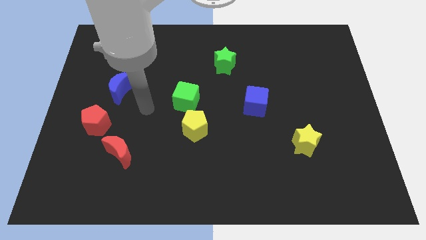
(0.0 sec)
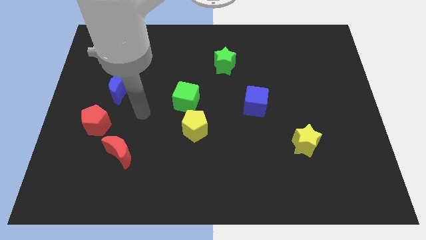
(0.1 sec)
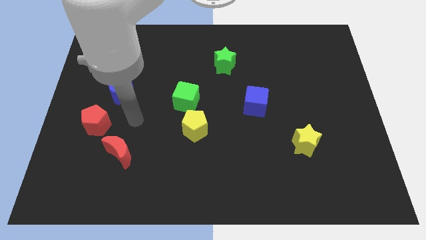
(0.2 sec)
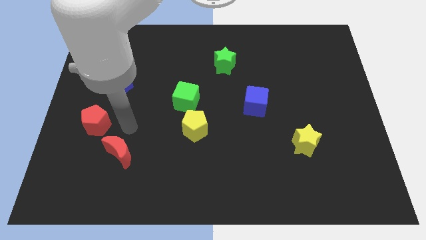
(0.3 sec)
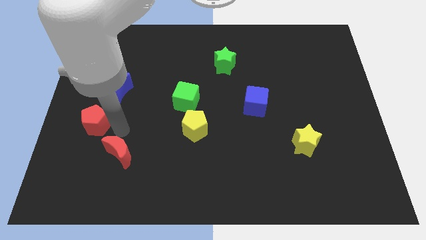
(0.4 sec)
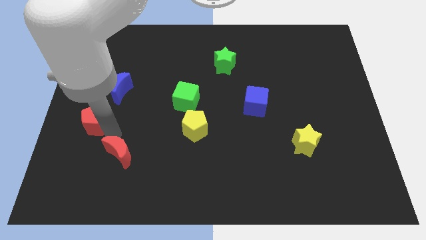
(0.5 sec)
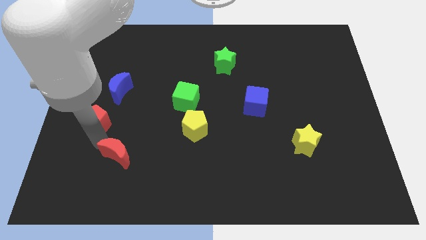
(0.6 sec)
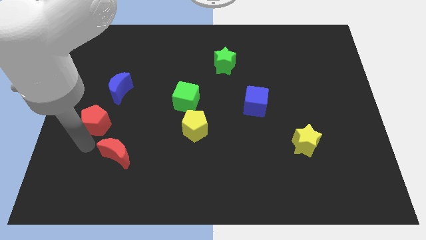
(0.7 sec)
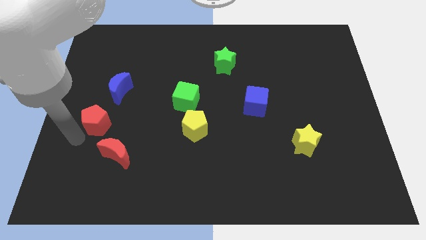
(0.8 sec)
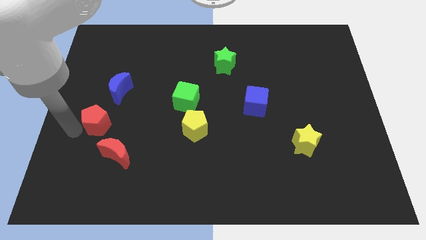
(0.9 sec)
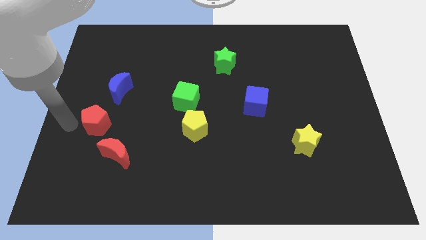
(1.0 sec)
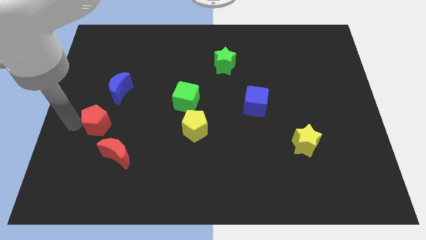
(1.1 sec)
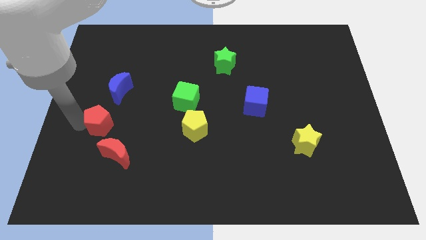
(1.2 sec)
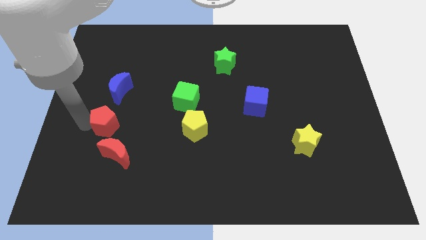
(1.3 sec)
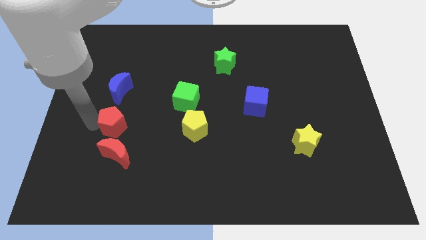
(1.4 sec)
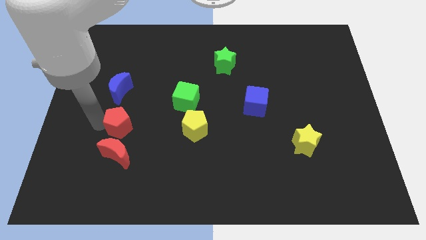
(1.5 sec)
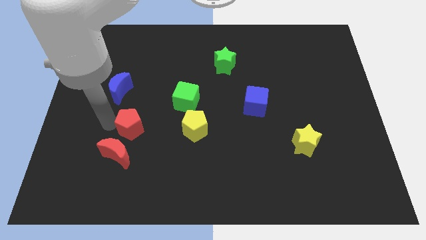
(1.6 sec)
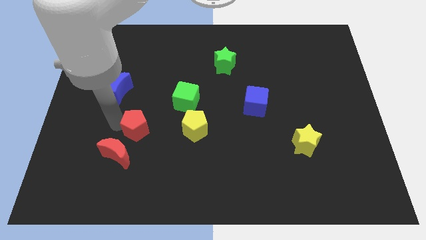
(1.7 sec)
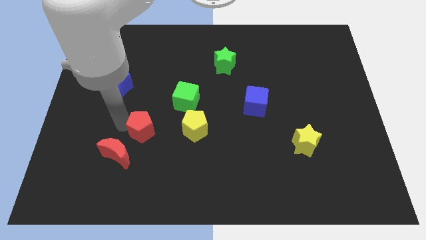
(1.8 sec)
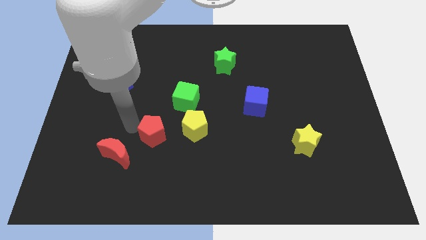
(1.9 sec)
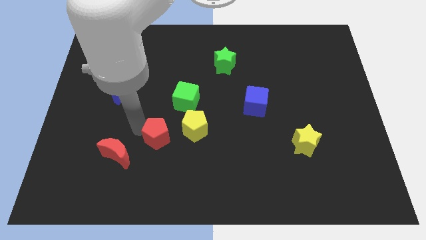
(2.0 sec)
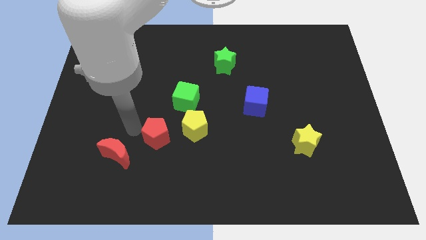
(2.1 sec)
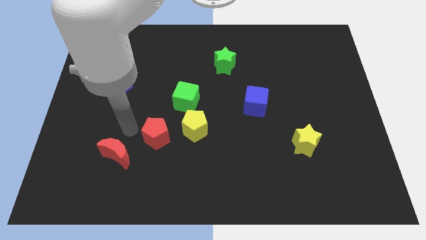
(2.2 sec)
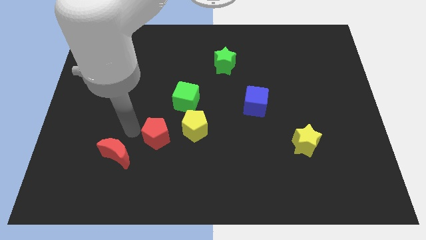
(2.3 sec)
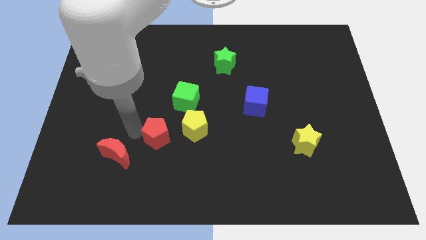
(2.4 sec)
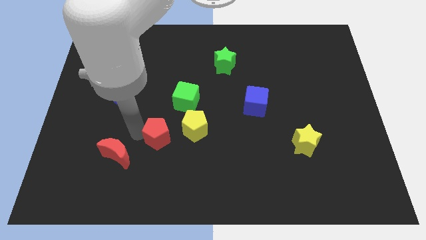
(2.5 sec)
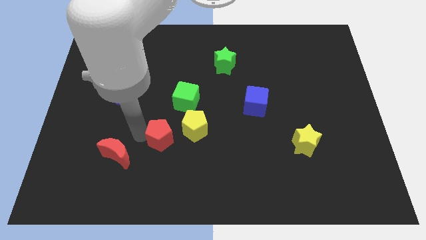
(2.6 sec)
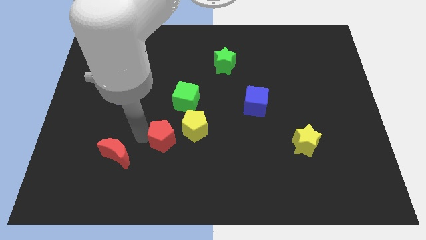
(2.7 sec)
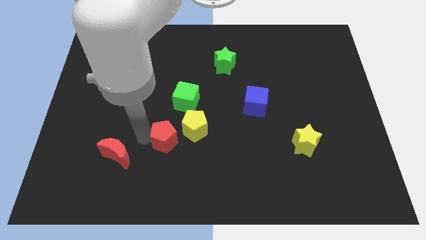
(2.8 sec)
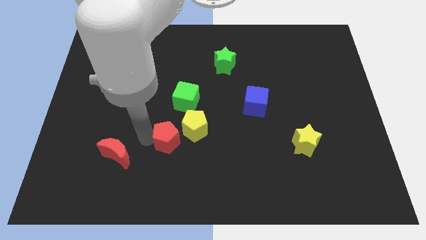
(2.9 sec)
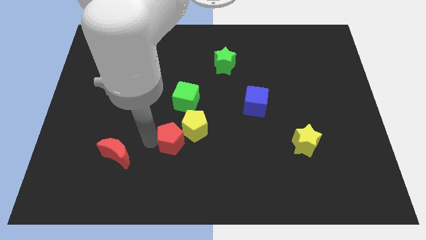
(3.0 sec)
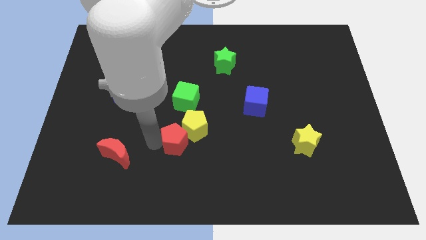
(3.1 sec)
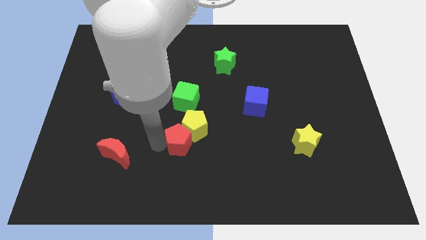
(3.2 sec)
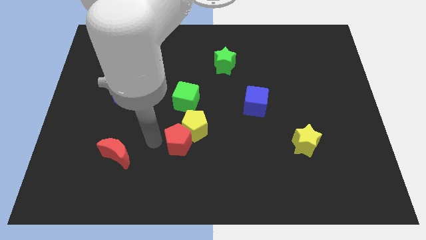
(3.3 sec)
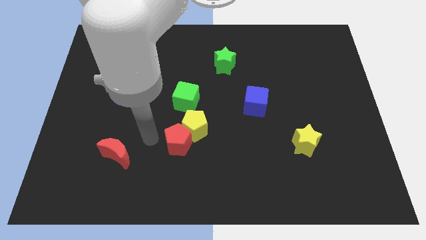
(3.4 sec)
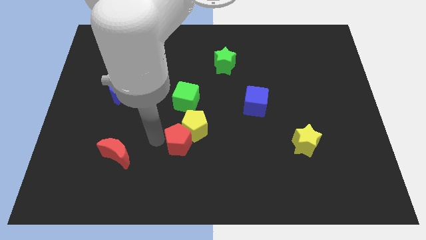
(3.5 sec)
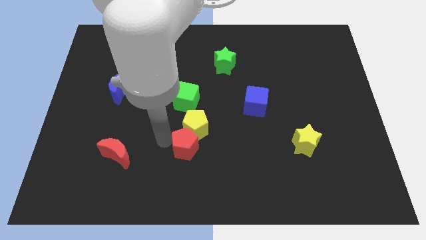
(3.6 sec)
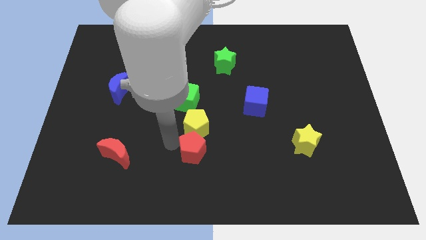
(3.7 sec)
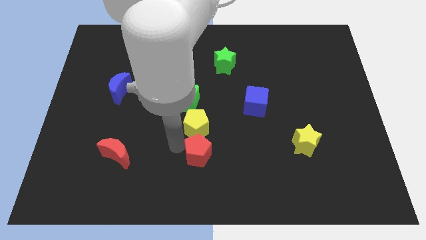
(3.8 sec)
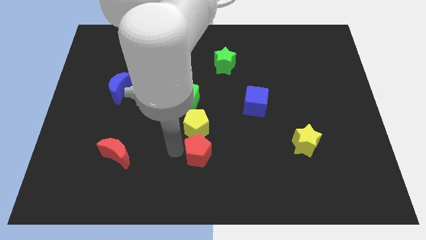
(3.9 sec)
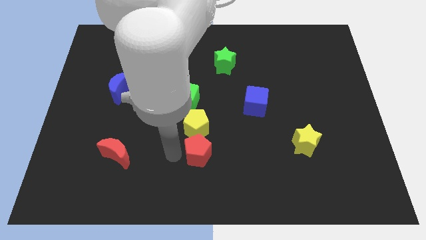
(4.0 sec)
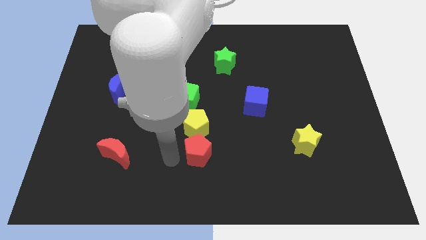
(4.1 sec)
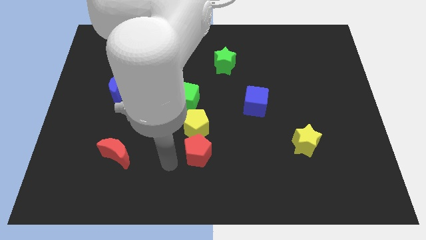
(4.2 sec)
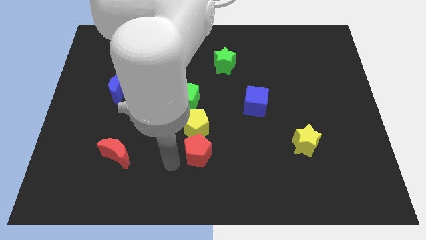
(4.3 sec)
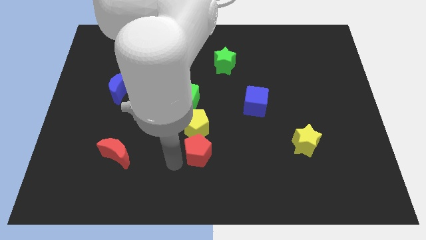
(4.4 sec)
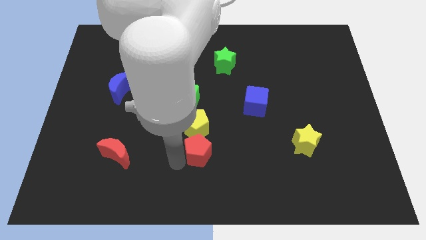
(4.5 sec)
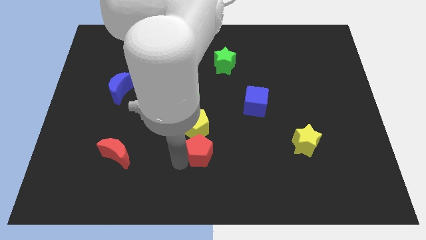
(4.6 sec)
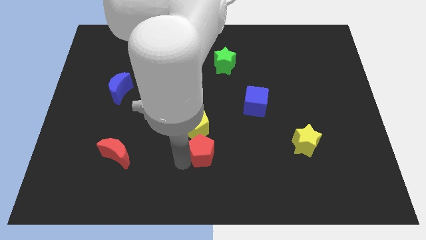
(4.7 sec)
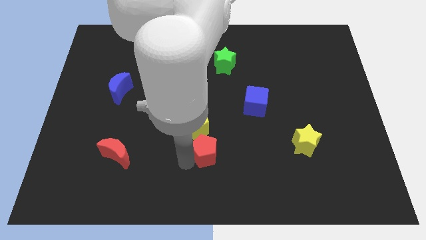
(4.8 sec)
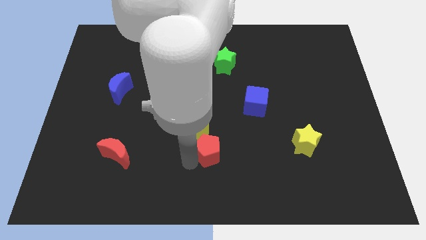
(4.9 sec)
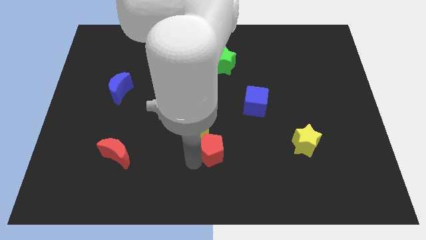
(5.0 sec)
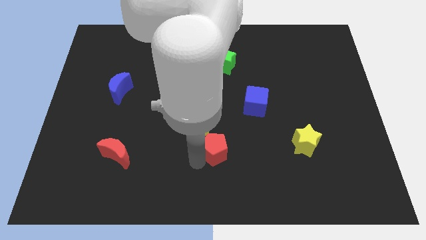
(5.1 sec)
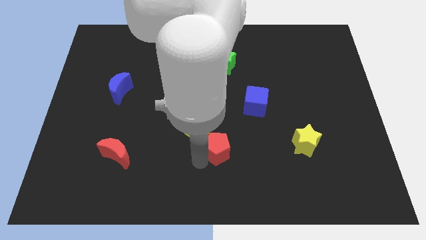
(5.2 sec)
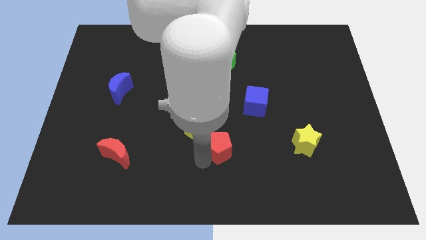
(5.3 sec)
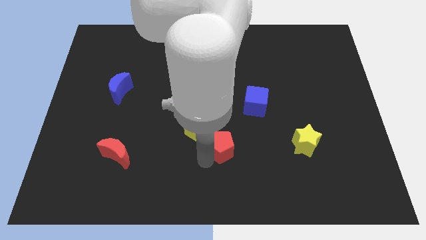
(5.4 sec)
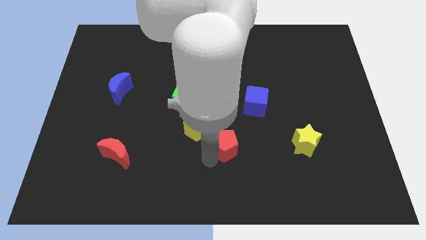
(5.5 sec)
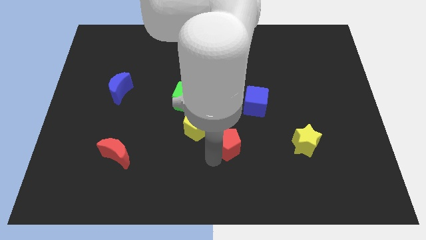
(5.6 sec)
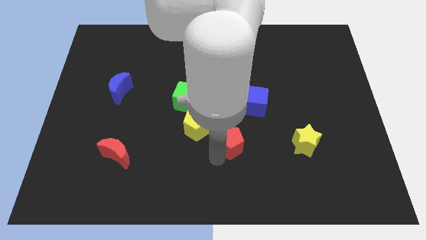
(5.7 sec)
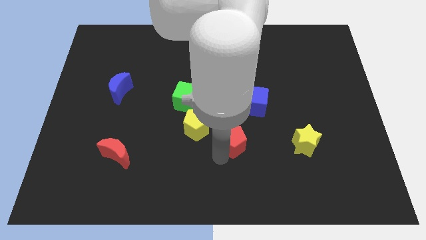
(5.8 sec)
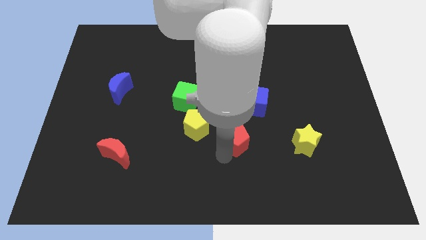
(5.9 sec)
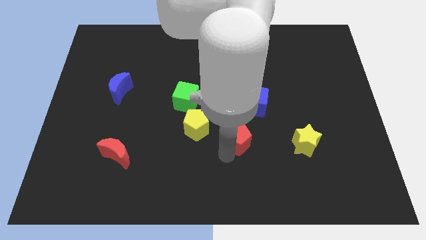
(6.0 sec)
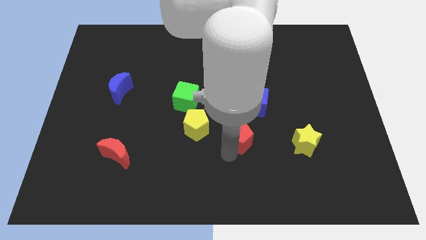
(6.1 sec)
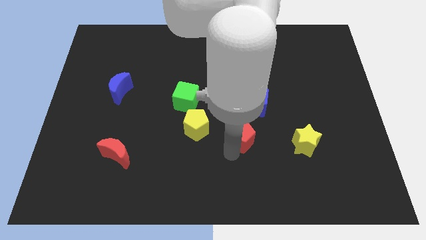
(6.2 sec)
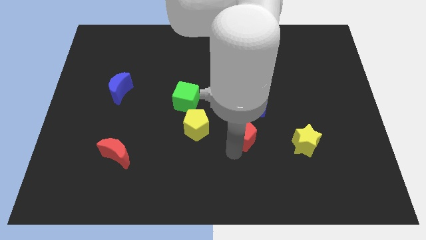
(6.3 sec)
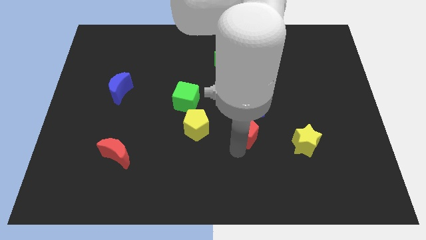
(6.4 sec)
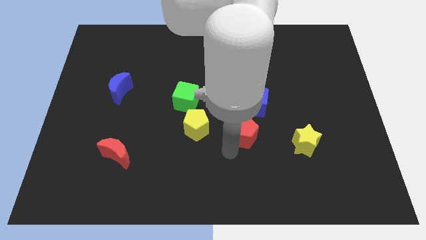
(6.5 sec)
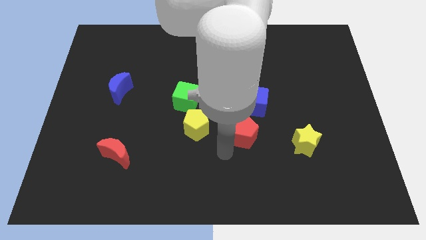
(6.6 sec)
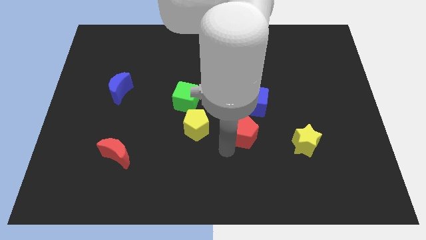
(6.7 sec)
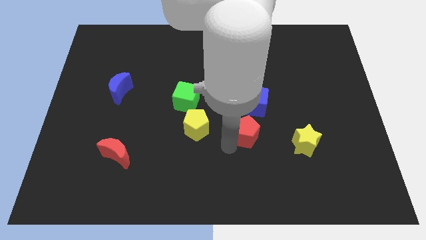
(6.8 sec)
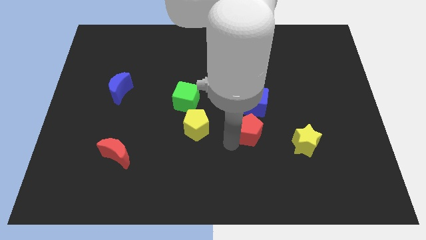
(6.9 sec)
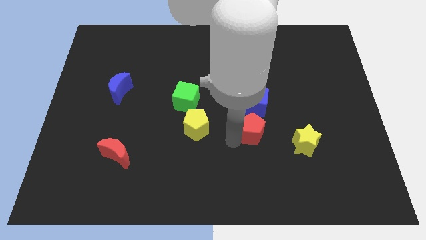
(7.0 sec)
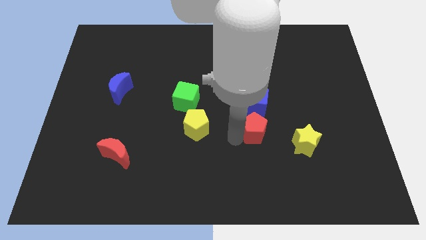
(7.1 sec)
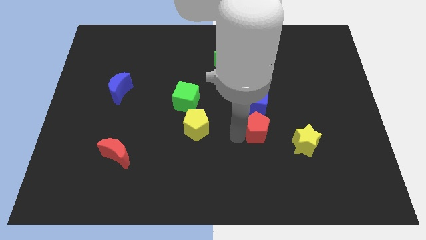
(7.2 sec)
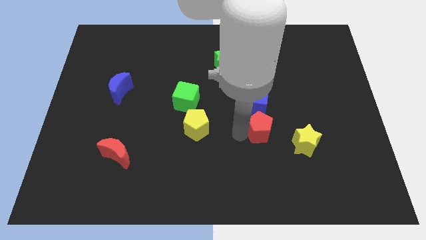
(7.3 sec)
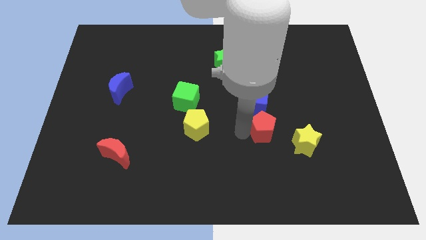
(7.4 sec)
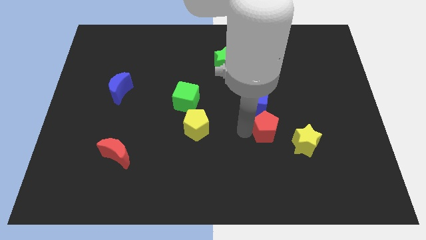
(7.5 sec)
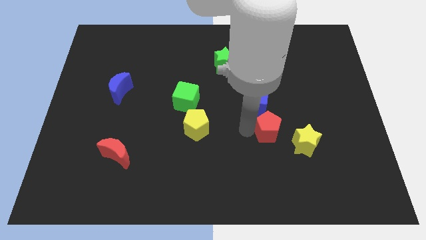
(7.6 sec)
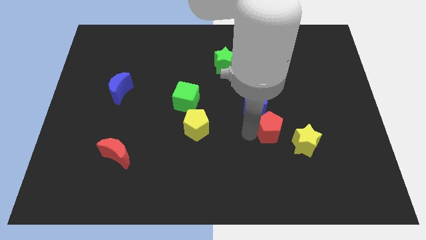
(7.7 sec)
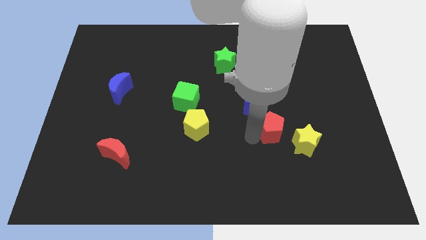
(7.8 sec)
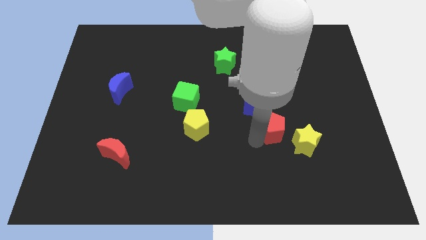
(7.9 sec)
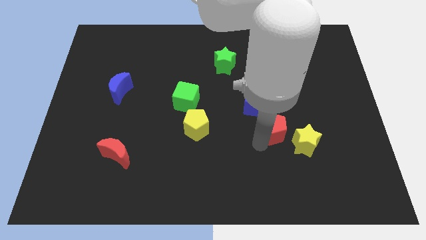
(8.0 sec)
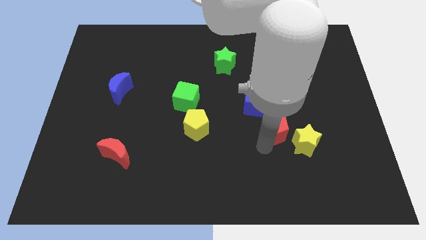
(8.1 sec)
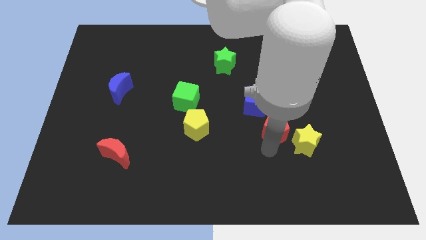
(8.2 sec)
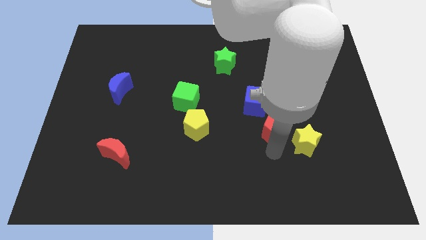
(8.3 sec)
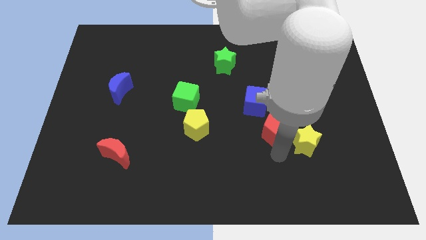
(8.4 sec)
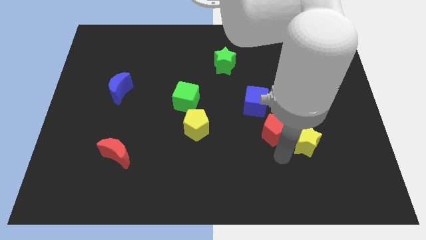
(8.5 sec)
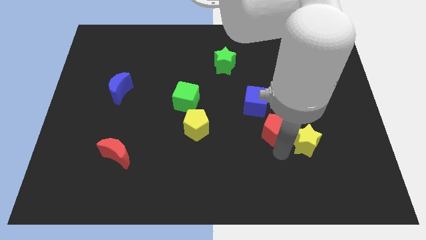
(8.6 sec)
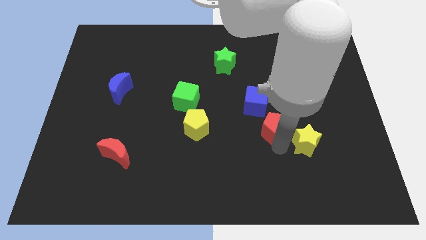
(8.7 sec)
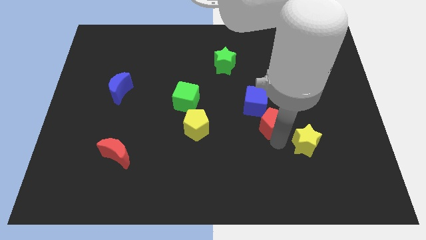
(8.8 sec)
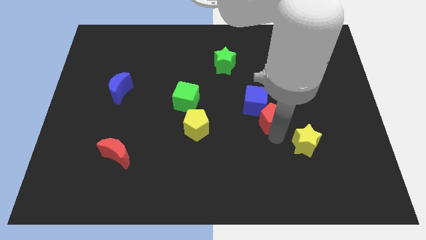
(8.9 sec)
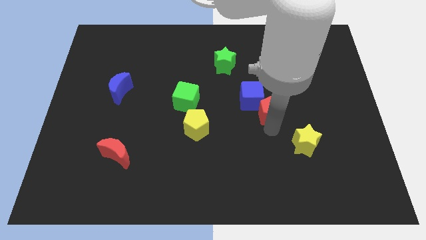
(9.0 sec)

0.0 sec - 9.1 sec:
push the red pentagon to the right of the blue cube
